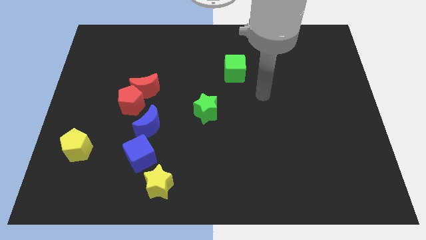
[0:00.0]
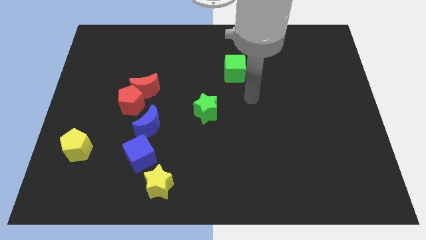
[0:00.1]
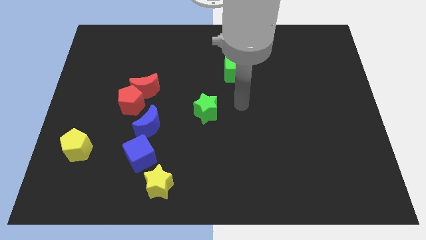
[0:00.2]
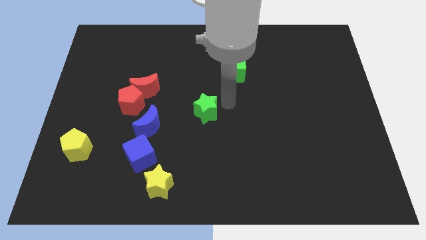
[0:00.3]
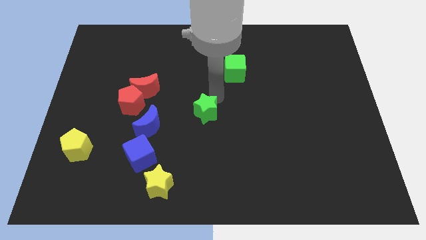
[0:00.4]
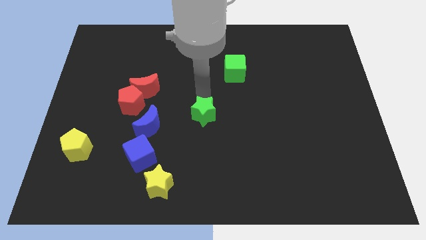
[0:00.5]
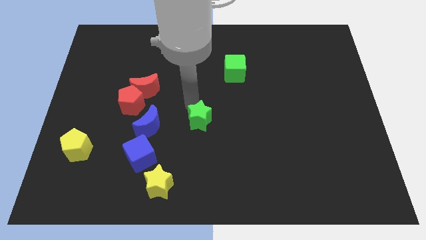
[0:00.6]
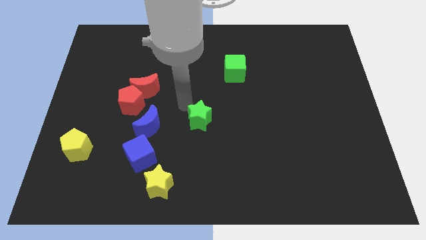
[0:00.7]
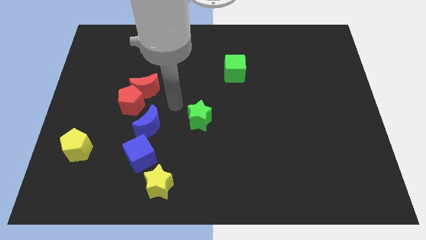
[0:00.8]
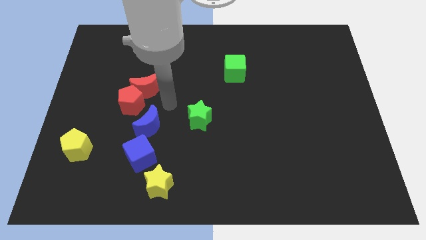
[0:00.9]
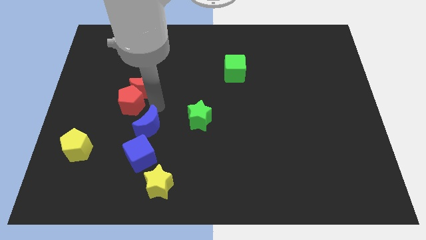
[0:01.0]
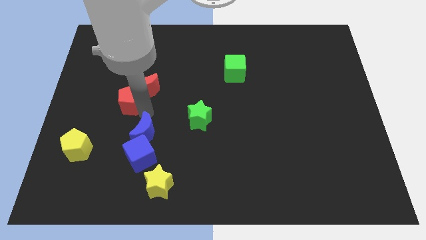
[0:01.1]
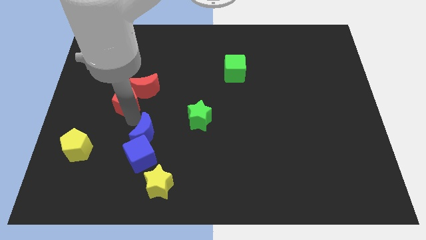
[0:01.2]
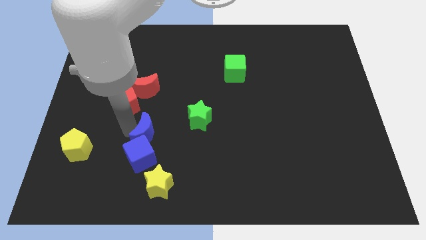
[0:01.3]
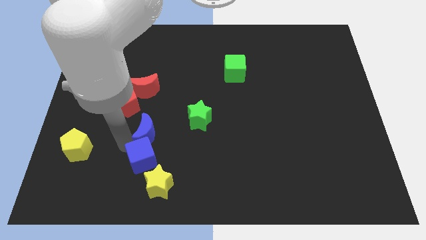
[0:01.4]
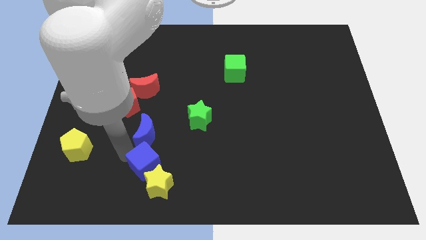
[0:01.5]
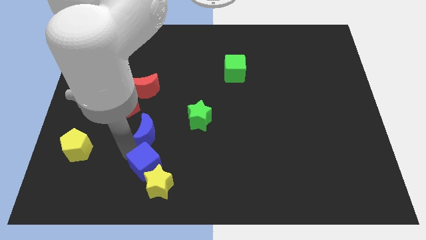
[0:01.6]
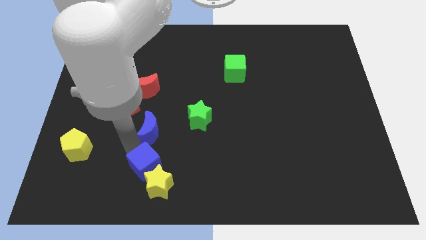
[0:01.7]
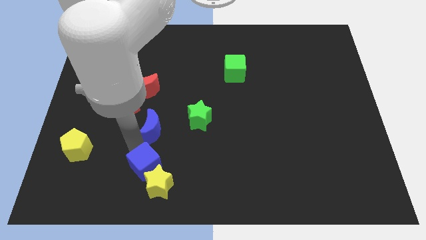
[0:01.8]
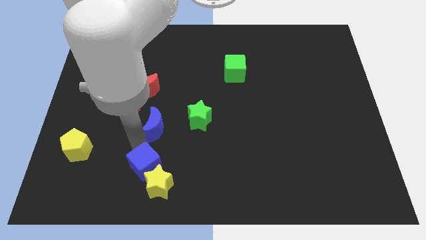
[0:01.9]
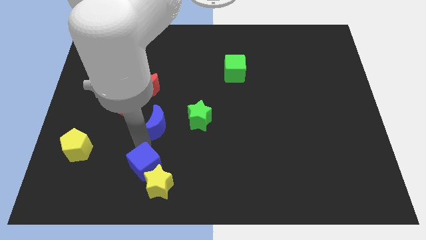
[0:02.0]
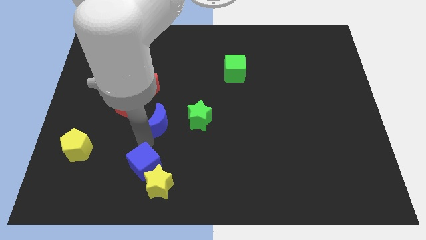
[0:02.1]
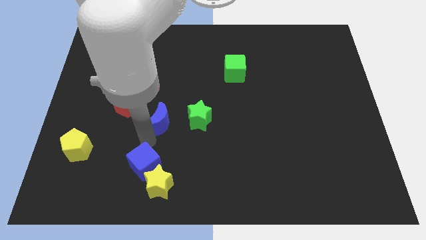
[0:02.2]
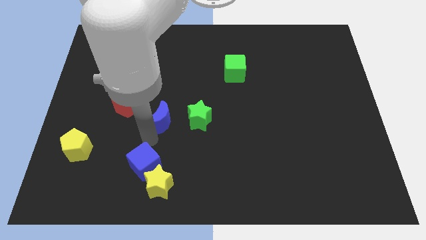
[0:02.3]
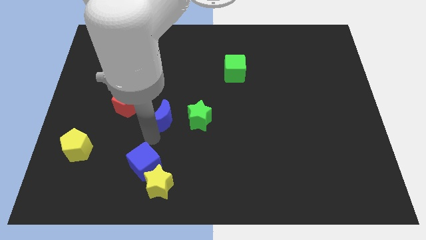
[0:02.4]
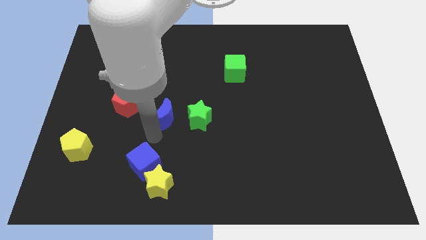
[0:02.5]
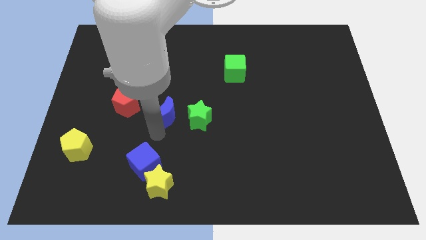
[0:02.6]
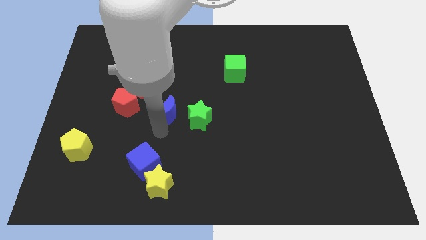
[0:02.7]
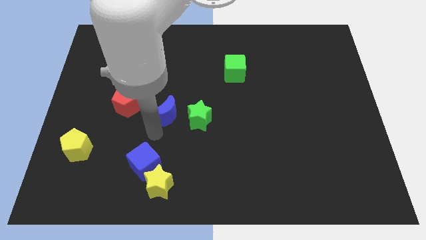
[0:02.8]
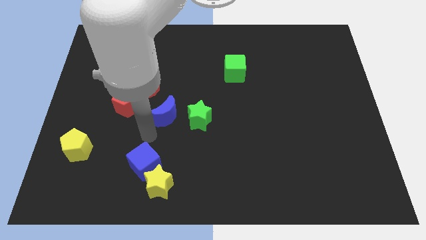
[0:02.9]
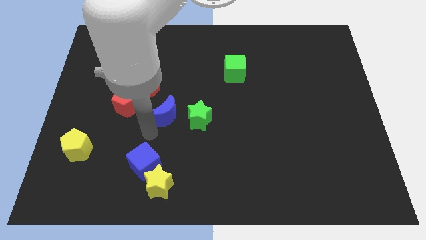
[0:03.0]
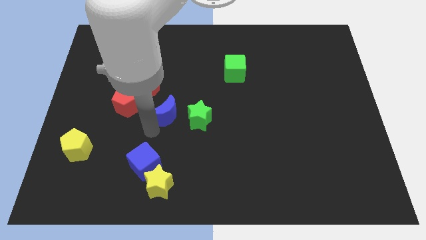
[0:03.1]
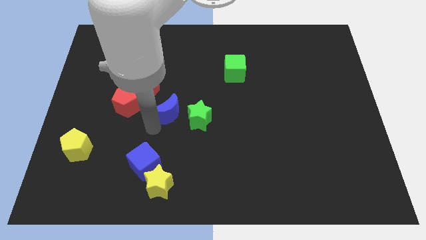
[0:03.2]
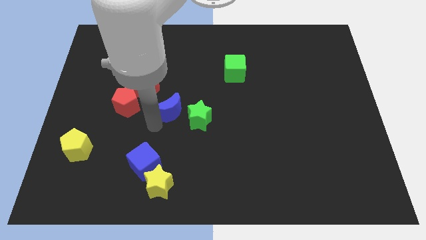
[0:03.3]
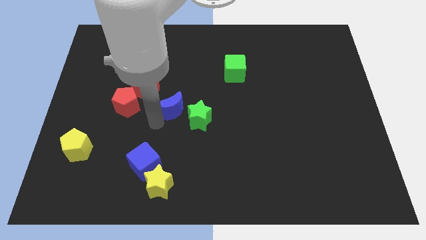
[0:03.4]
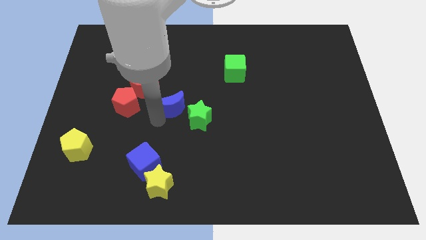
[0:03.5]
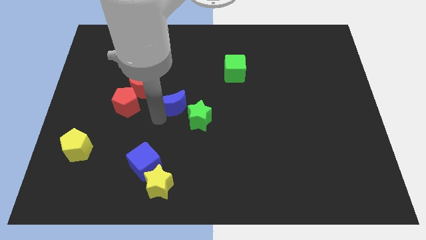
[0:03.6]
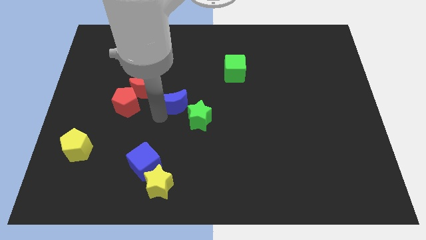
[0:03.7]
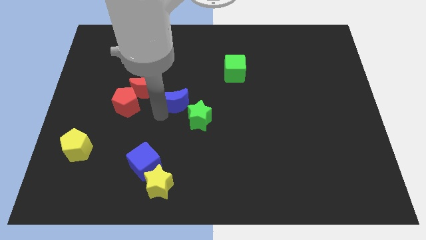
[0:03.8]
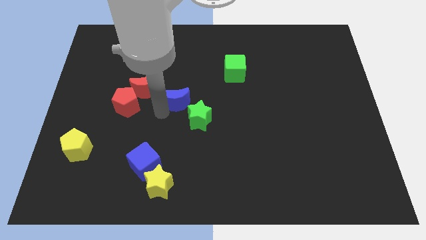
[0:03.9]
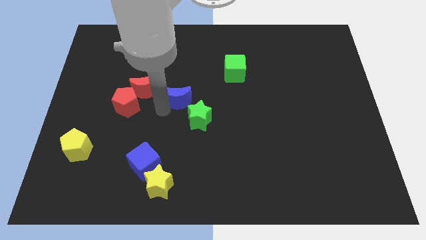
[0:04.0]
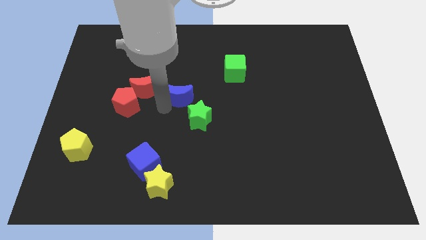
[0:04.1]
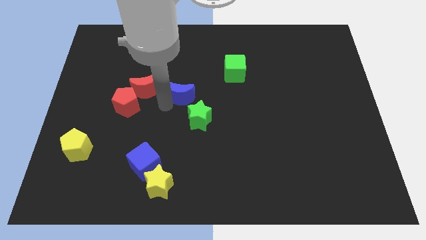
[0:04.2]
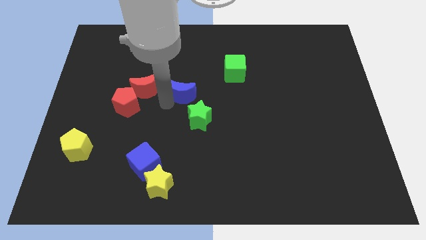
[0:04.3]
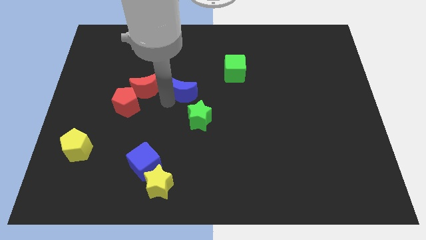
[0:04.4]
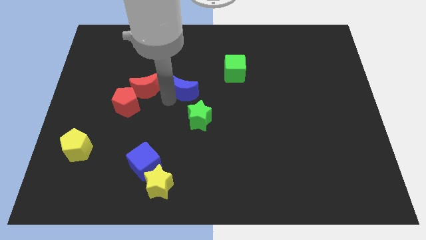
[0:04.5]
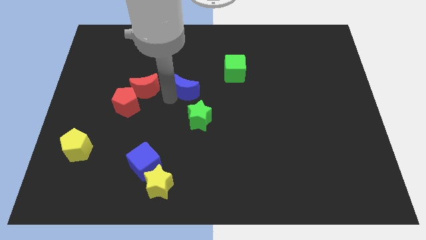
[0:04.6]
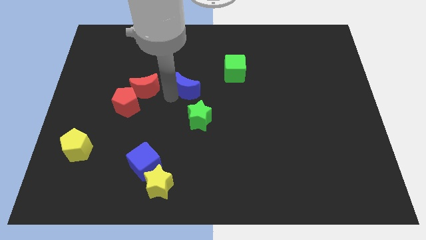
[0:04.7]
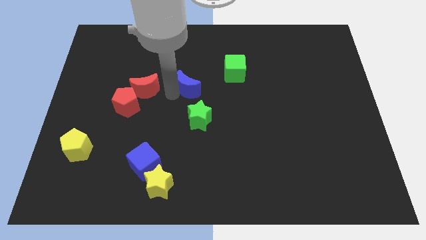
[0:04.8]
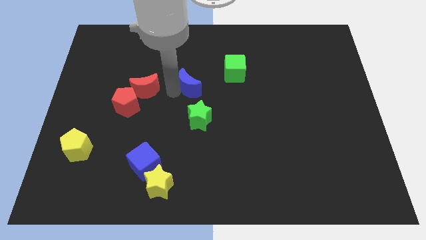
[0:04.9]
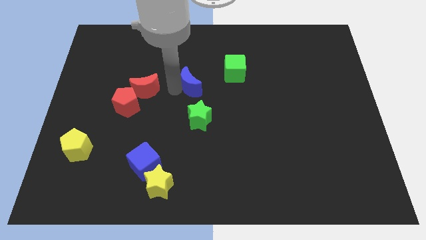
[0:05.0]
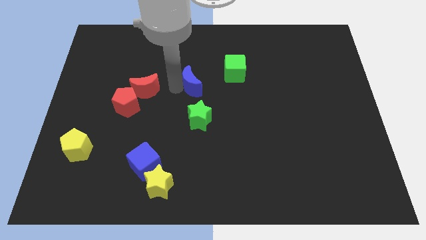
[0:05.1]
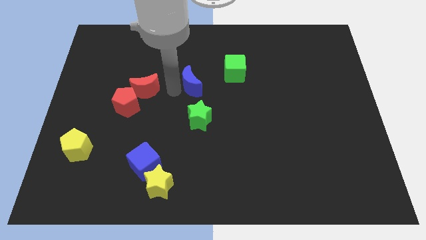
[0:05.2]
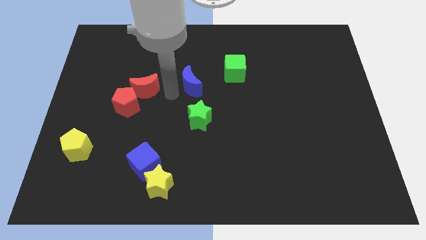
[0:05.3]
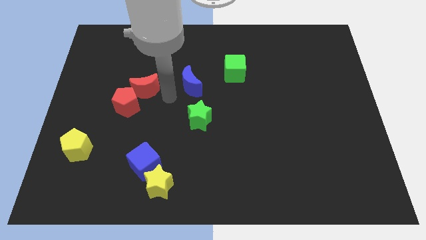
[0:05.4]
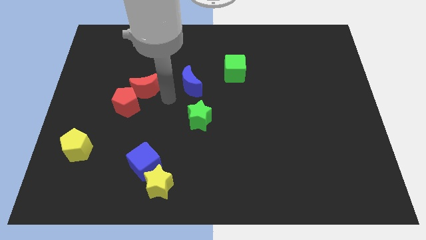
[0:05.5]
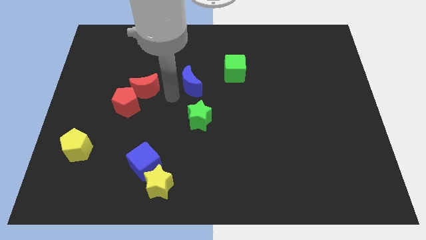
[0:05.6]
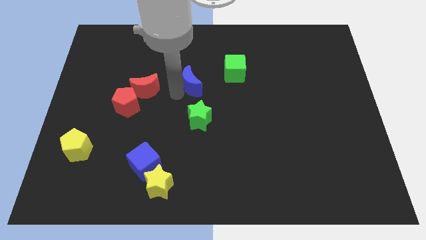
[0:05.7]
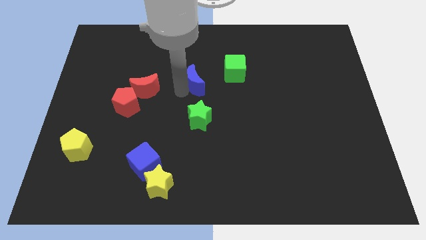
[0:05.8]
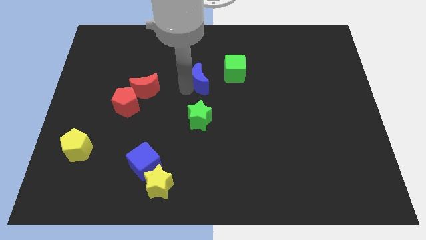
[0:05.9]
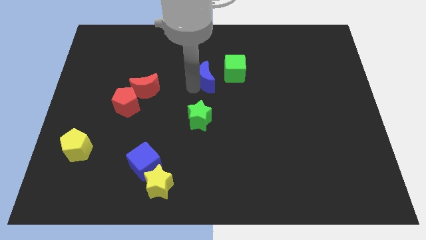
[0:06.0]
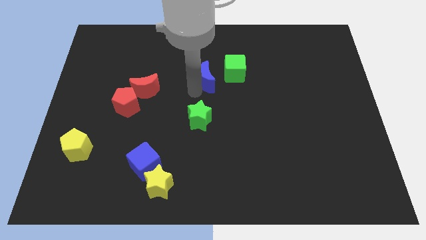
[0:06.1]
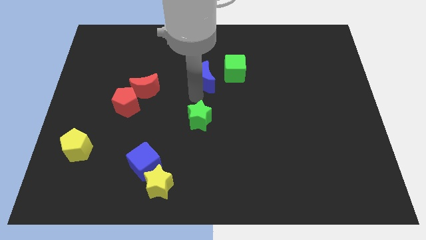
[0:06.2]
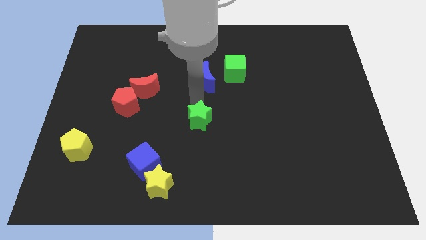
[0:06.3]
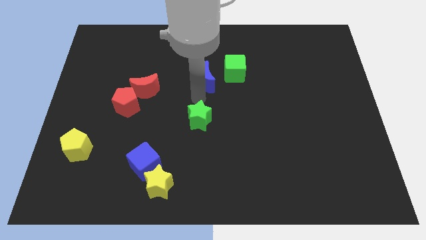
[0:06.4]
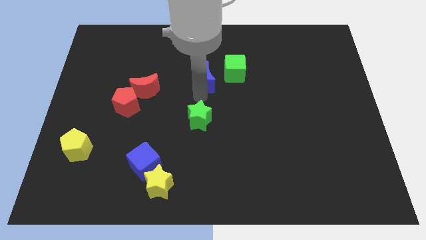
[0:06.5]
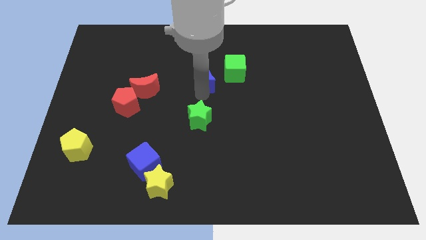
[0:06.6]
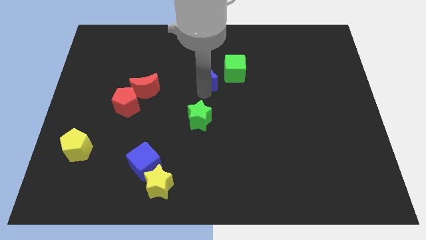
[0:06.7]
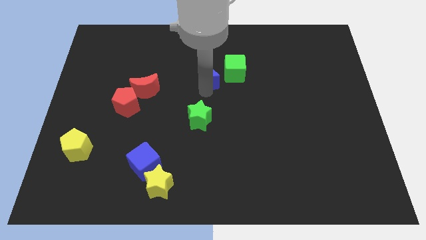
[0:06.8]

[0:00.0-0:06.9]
push the blue moon diagonally upwards and right

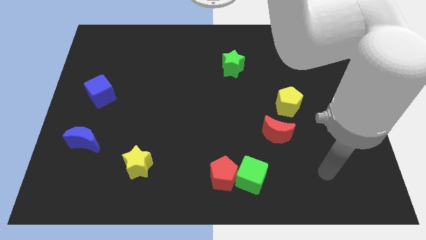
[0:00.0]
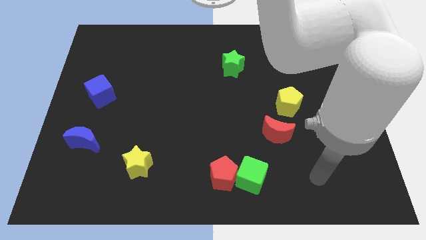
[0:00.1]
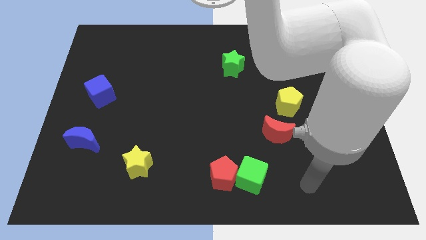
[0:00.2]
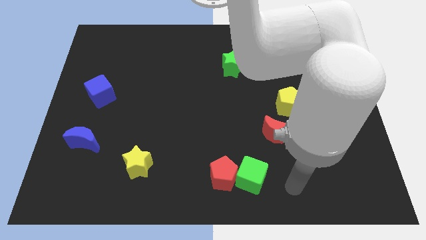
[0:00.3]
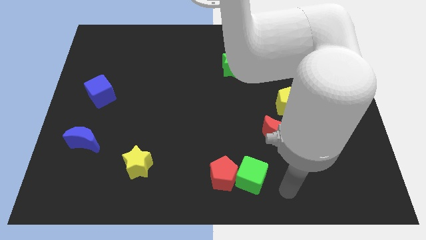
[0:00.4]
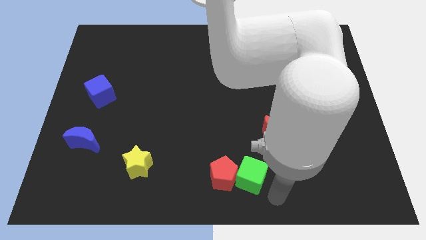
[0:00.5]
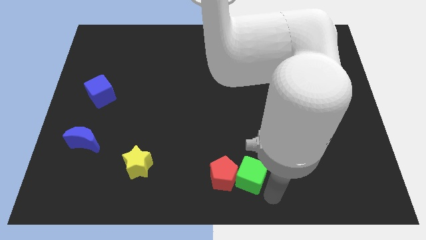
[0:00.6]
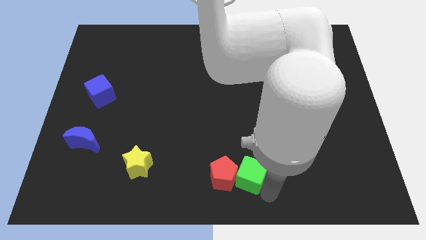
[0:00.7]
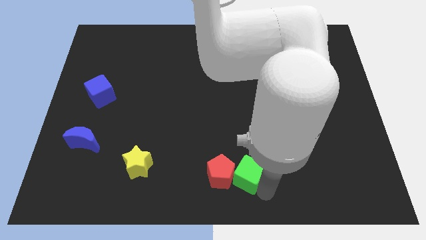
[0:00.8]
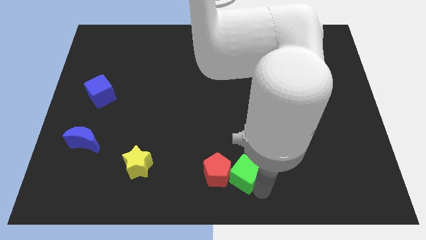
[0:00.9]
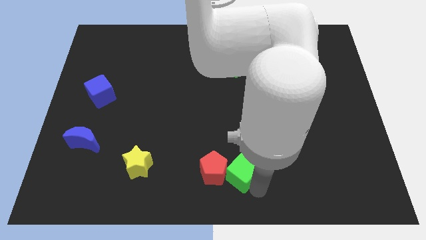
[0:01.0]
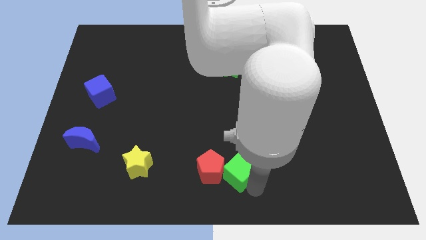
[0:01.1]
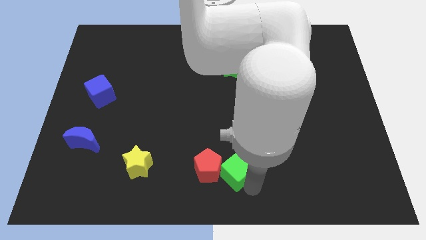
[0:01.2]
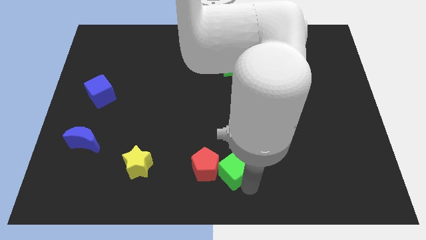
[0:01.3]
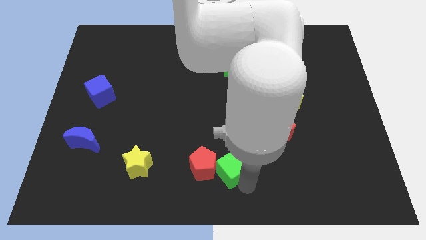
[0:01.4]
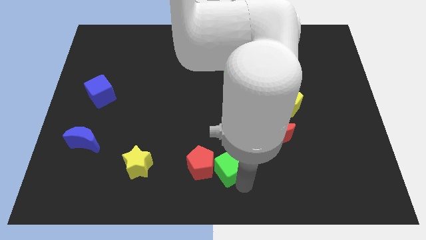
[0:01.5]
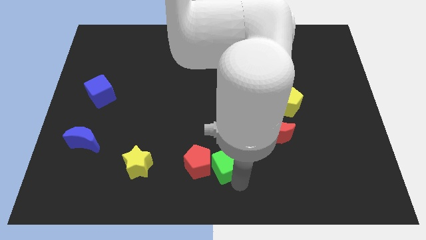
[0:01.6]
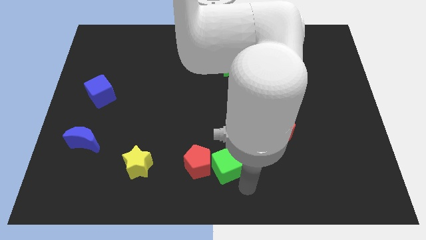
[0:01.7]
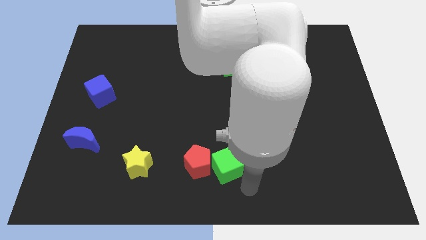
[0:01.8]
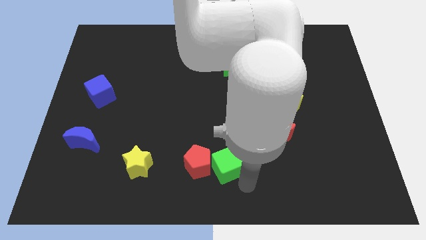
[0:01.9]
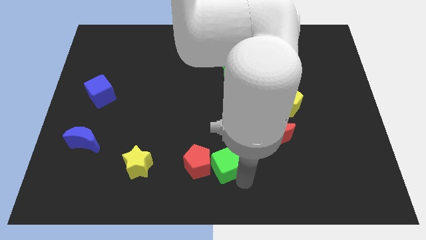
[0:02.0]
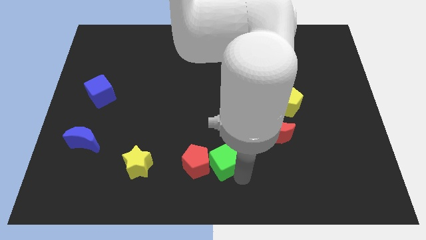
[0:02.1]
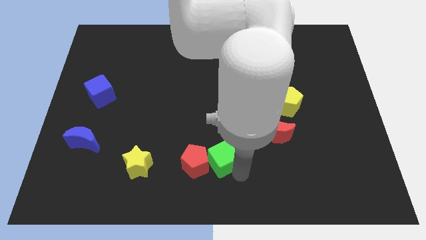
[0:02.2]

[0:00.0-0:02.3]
move the green cube upwards and then left a bit
